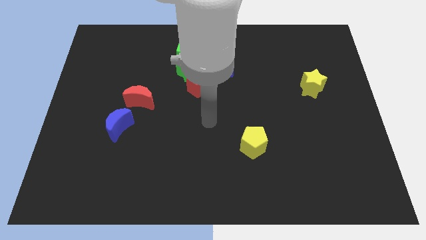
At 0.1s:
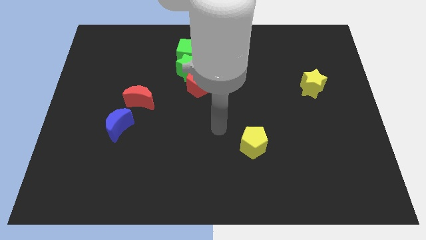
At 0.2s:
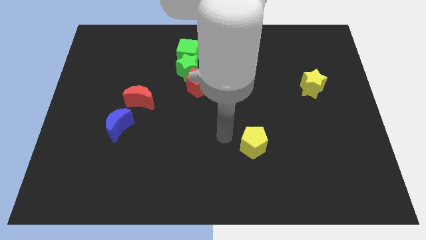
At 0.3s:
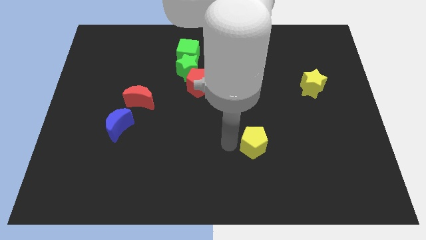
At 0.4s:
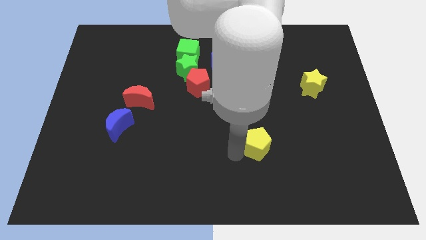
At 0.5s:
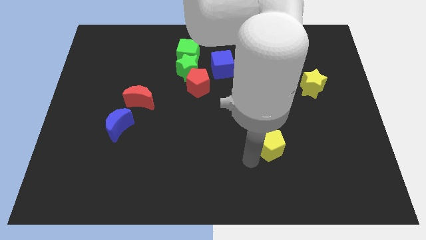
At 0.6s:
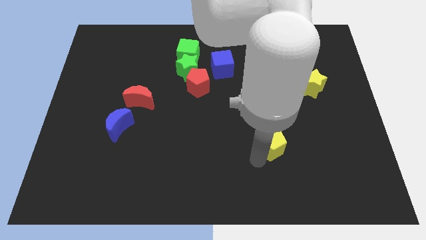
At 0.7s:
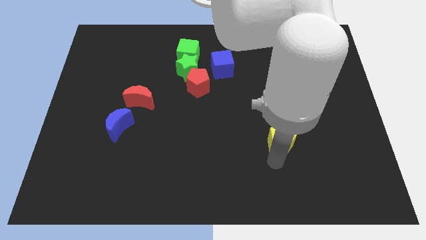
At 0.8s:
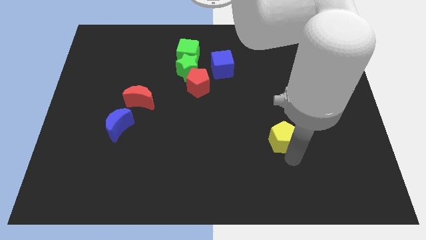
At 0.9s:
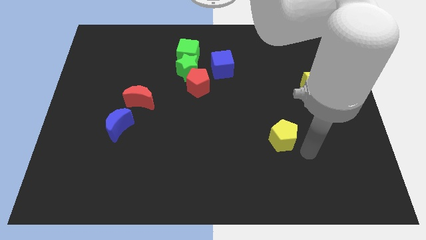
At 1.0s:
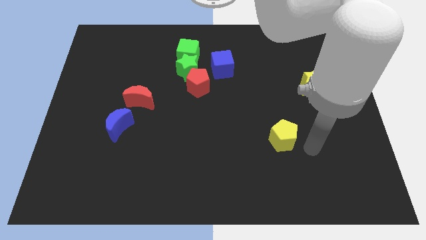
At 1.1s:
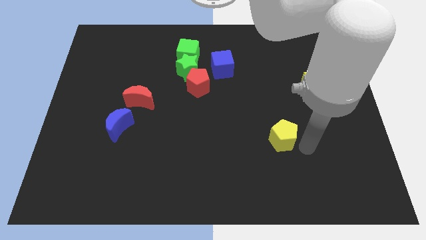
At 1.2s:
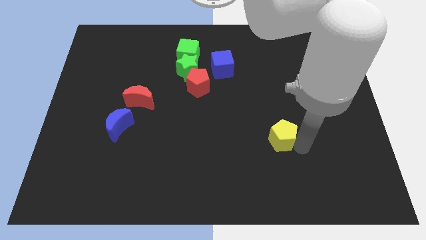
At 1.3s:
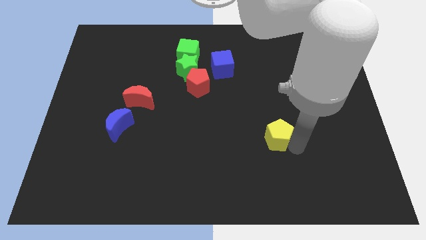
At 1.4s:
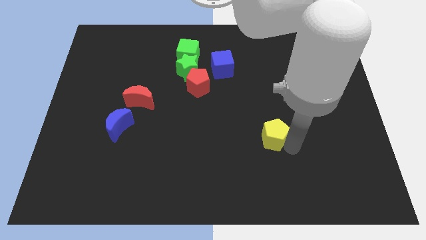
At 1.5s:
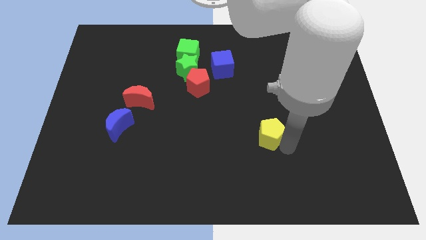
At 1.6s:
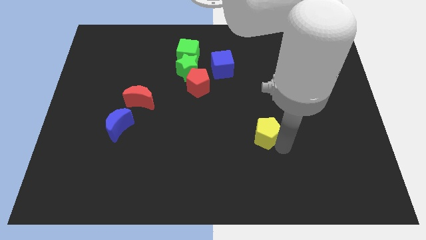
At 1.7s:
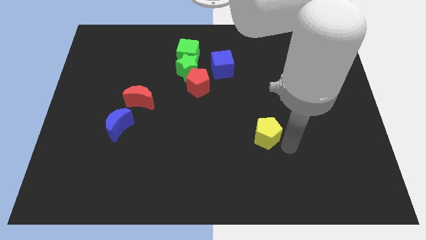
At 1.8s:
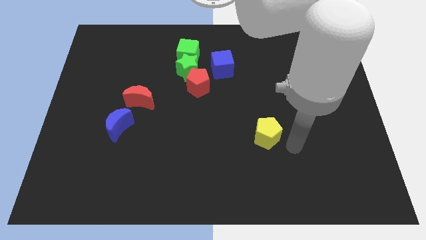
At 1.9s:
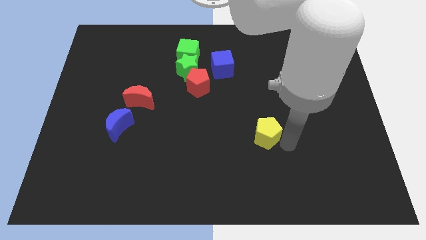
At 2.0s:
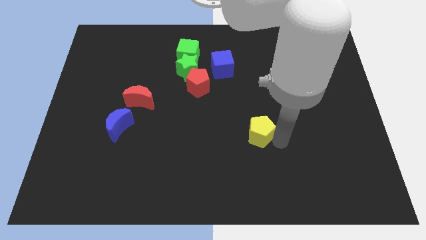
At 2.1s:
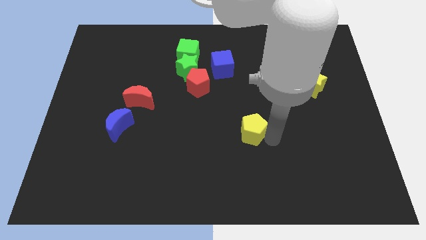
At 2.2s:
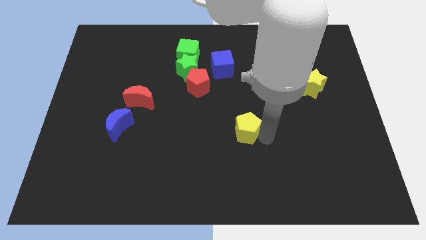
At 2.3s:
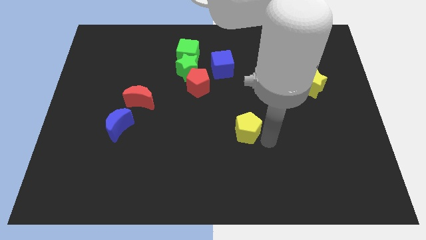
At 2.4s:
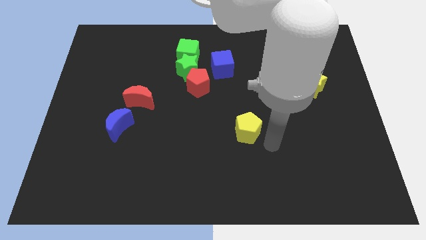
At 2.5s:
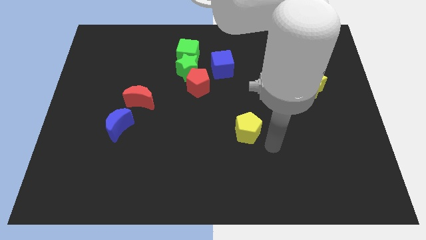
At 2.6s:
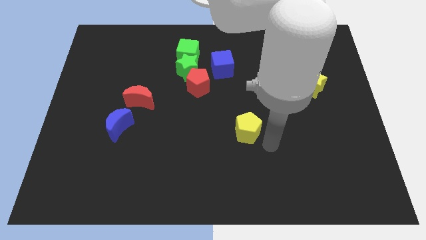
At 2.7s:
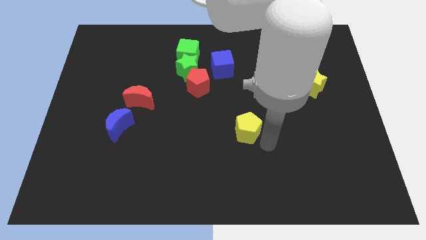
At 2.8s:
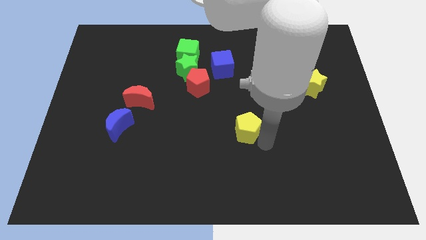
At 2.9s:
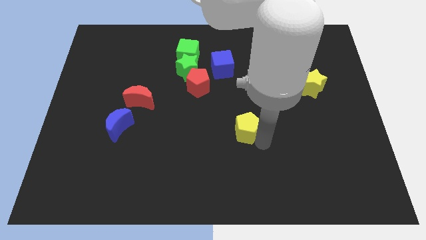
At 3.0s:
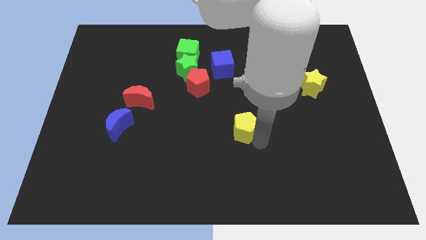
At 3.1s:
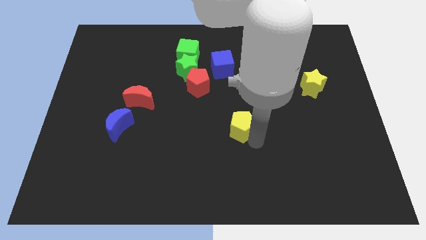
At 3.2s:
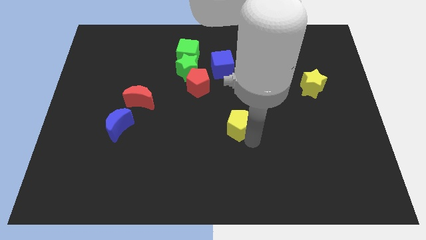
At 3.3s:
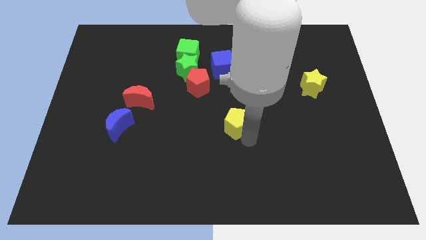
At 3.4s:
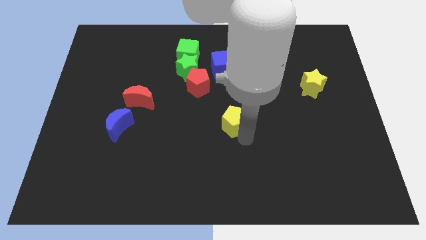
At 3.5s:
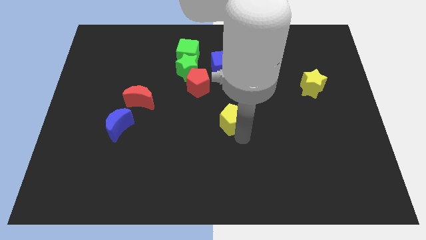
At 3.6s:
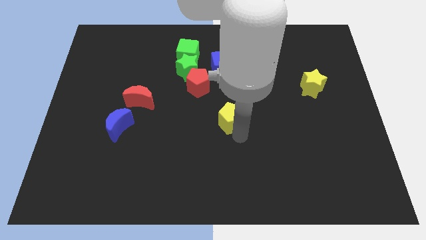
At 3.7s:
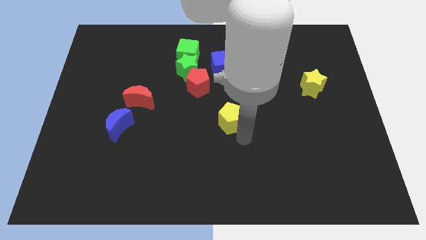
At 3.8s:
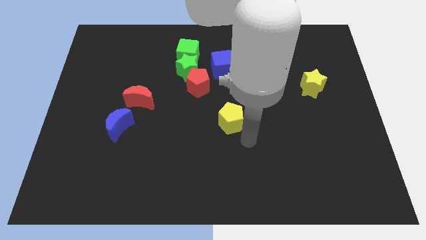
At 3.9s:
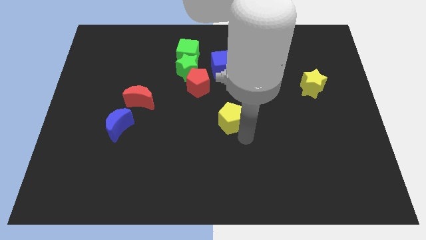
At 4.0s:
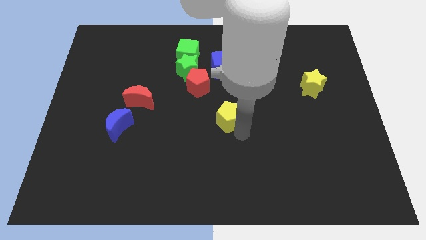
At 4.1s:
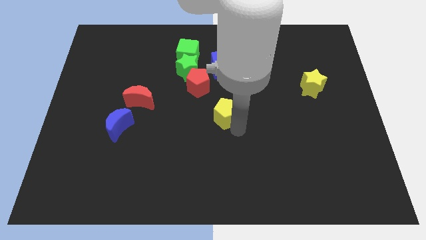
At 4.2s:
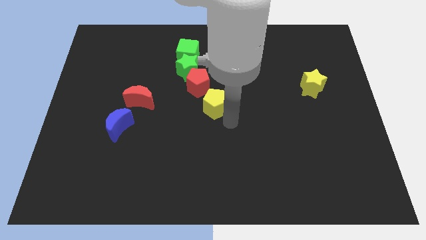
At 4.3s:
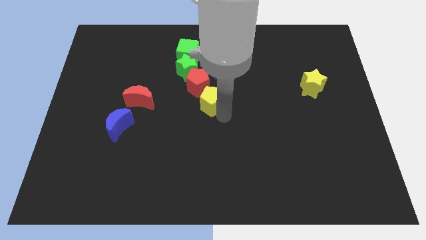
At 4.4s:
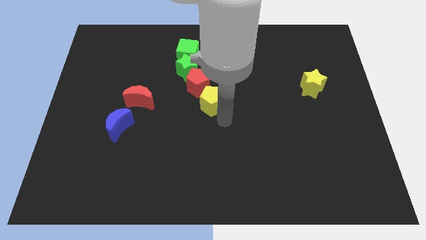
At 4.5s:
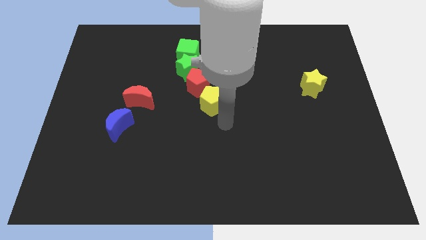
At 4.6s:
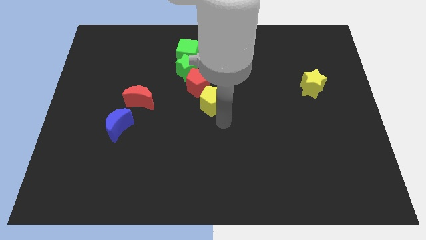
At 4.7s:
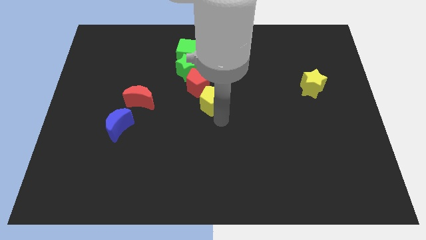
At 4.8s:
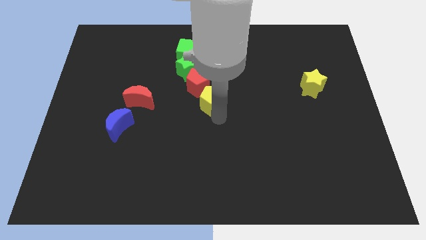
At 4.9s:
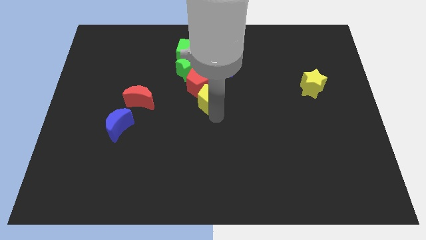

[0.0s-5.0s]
move the yellow pentagon close to the red pentagon

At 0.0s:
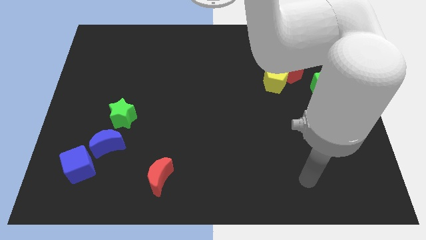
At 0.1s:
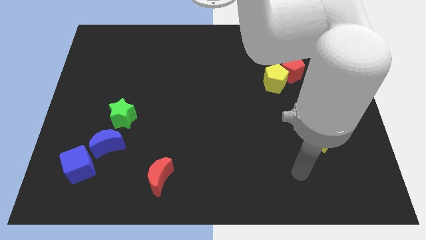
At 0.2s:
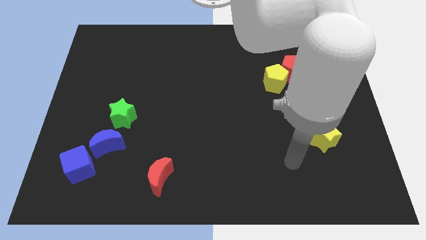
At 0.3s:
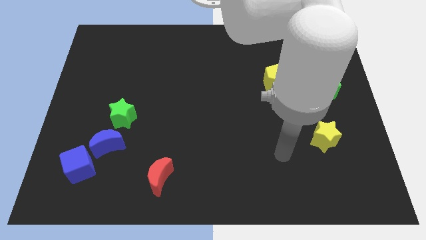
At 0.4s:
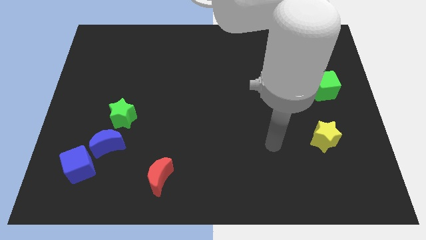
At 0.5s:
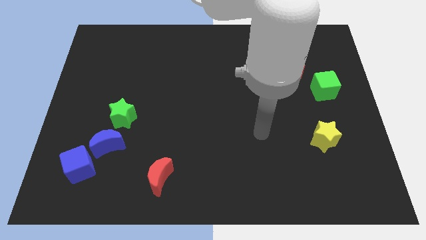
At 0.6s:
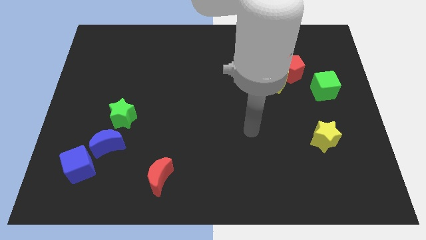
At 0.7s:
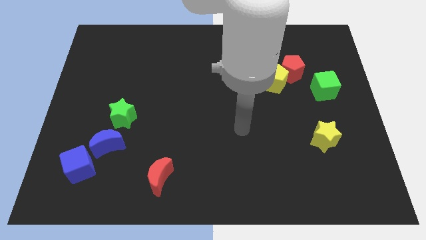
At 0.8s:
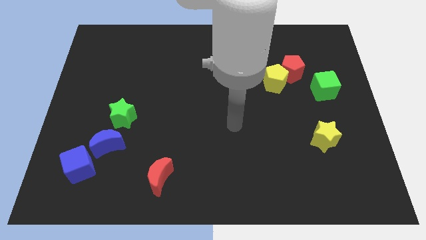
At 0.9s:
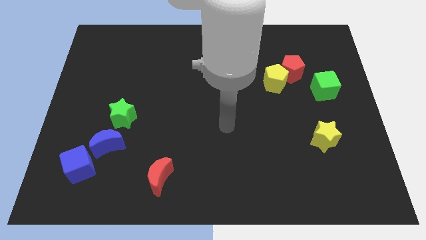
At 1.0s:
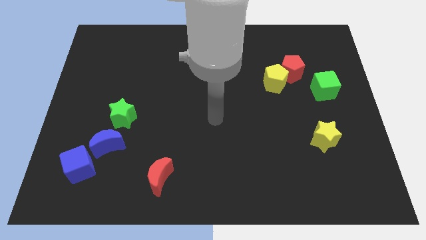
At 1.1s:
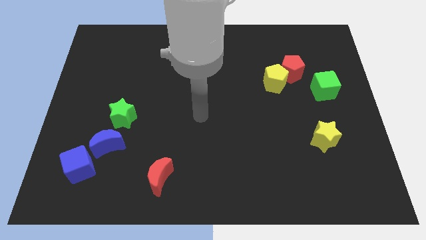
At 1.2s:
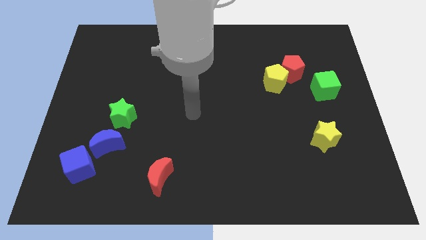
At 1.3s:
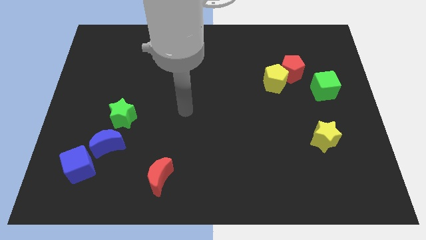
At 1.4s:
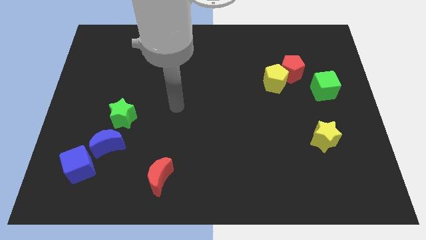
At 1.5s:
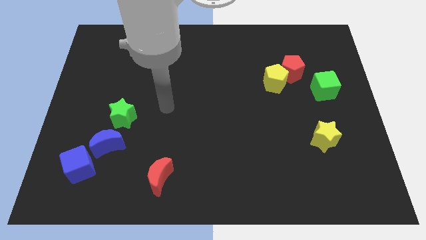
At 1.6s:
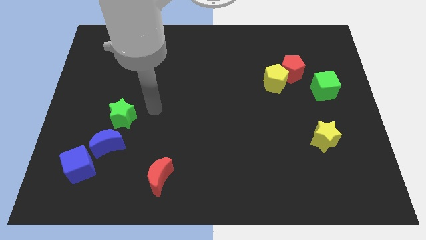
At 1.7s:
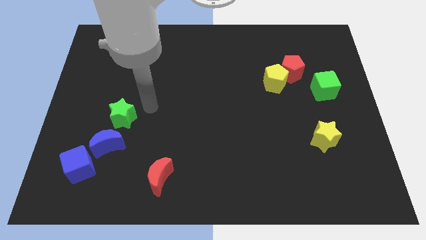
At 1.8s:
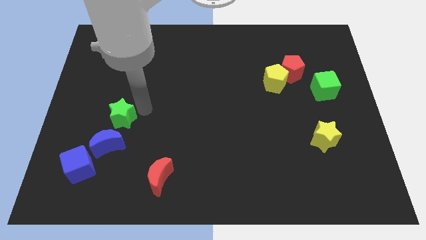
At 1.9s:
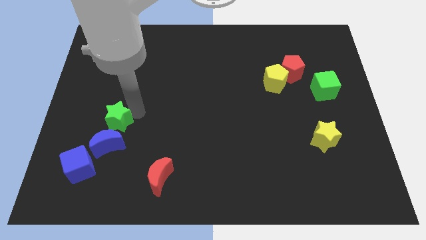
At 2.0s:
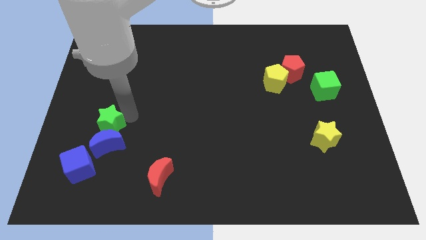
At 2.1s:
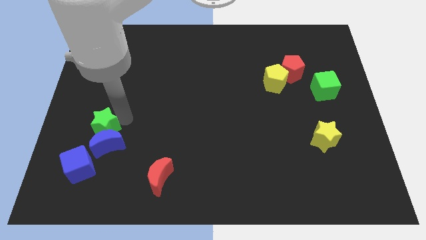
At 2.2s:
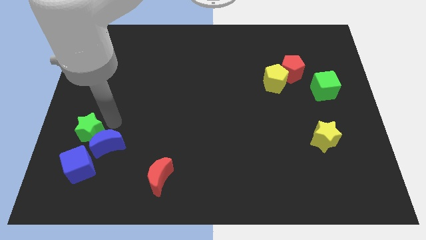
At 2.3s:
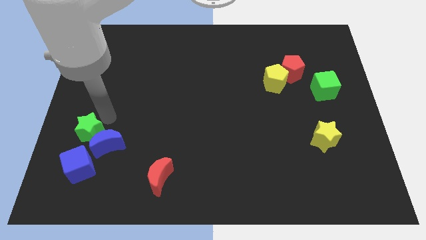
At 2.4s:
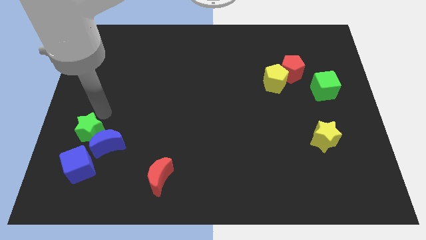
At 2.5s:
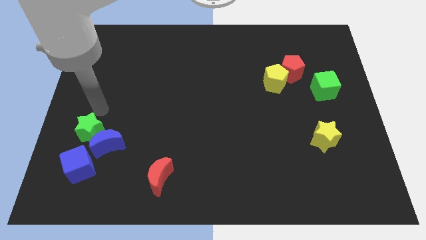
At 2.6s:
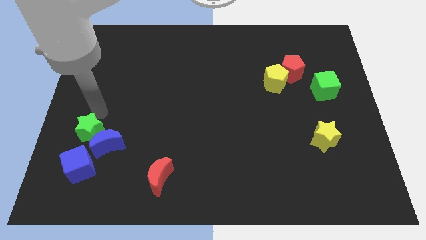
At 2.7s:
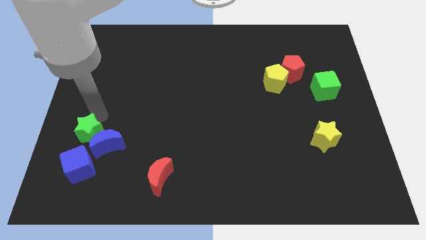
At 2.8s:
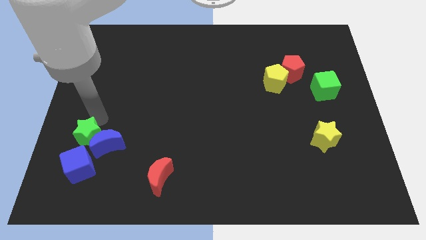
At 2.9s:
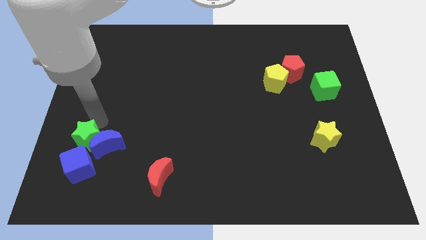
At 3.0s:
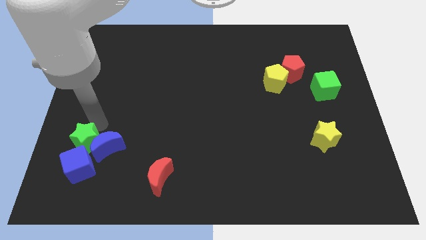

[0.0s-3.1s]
push the green star to the blue cube
